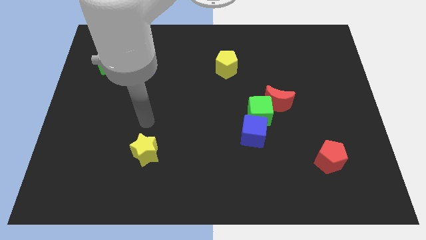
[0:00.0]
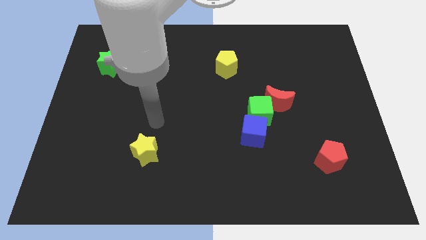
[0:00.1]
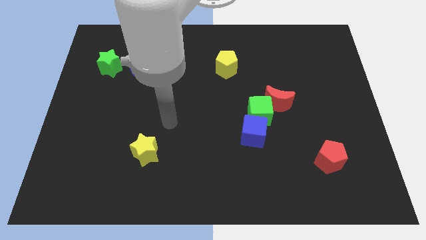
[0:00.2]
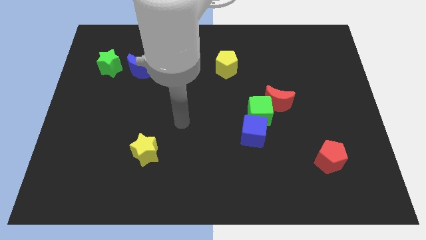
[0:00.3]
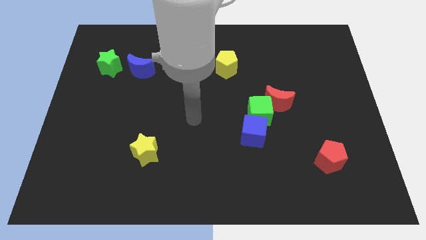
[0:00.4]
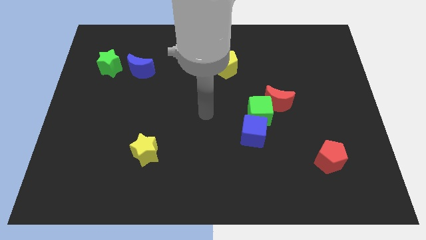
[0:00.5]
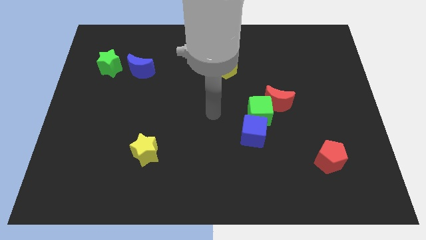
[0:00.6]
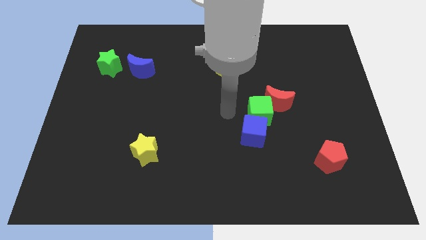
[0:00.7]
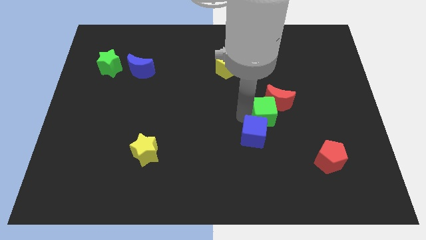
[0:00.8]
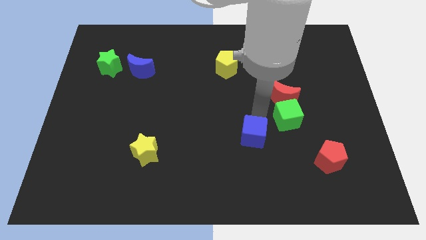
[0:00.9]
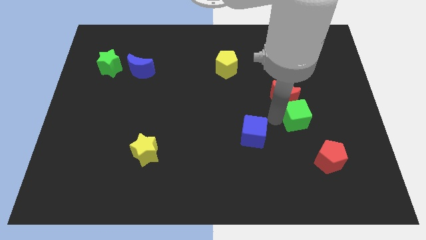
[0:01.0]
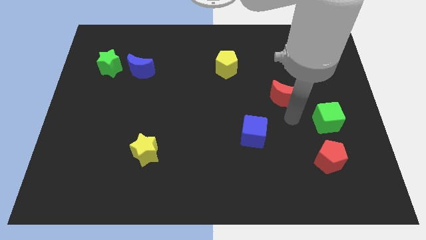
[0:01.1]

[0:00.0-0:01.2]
move the red moon away from the green cube

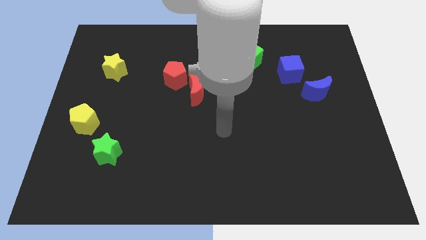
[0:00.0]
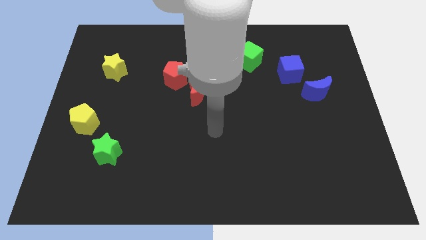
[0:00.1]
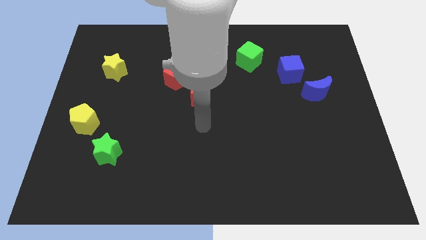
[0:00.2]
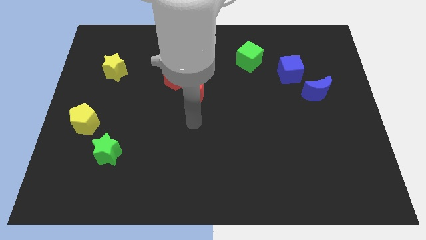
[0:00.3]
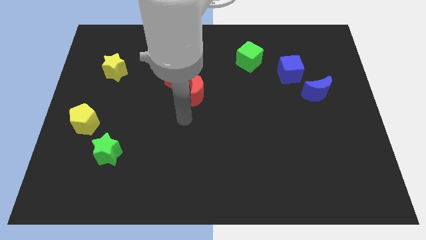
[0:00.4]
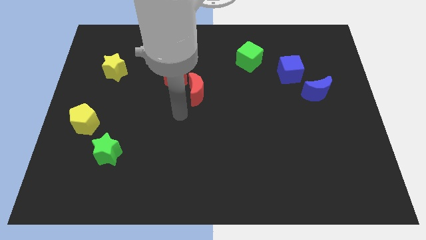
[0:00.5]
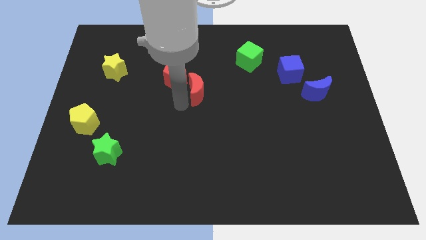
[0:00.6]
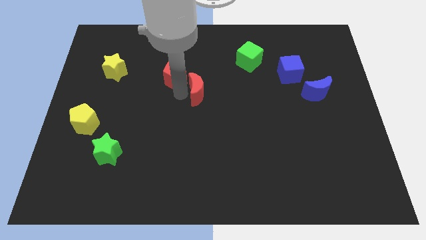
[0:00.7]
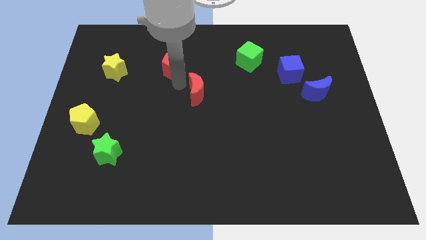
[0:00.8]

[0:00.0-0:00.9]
move the red moon away from the red pentagon

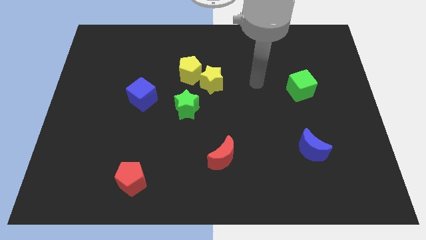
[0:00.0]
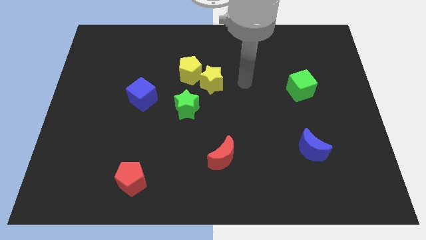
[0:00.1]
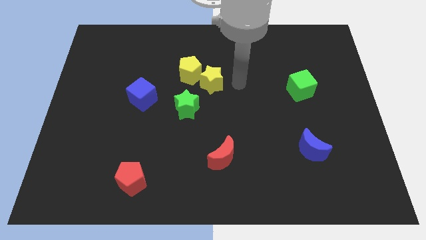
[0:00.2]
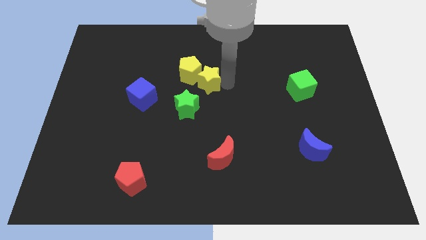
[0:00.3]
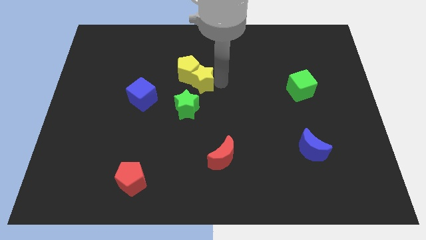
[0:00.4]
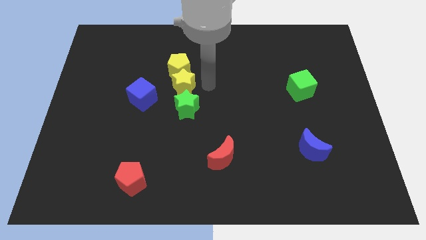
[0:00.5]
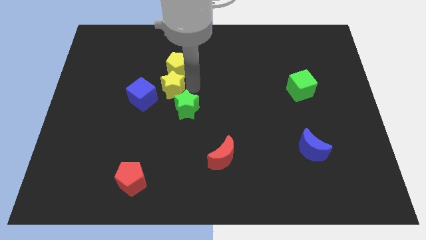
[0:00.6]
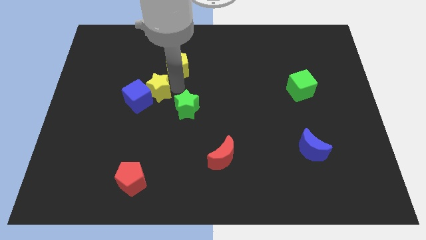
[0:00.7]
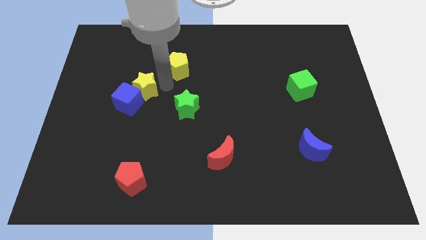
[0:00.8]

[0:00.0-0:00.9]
separate the yellow pentagon from the yellow star

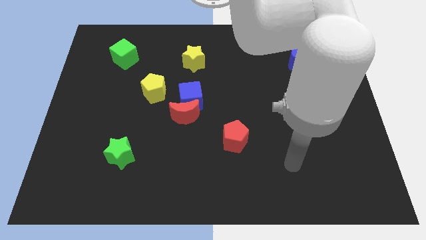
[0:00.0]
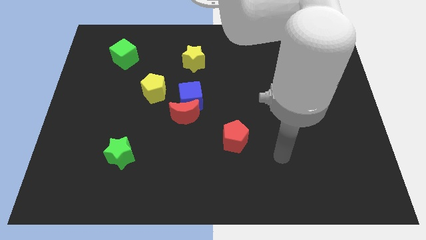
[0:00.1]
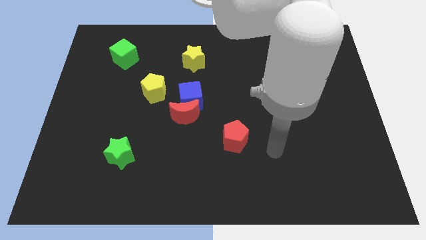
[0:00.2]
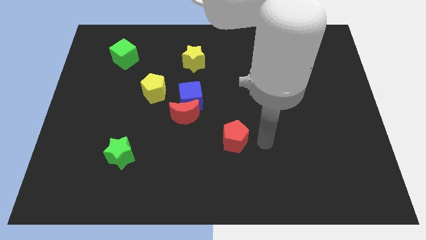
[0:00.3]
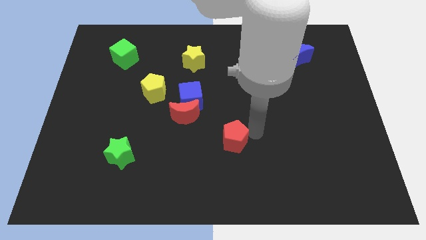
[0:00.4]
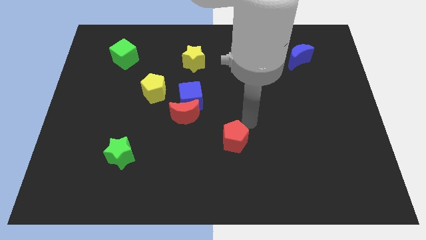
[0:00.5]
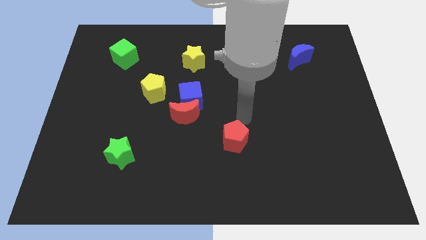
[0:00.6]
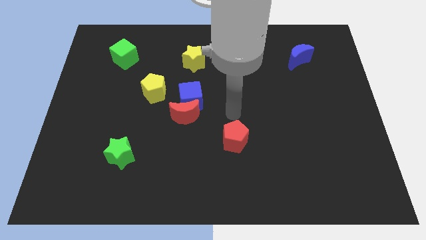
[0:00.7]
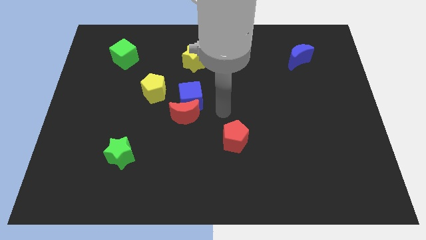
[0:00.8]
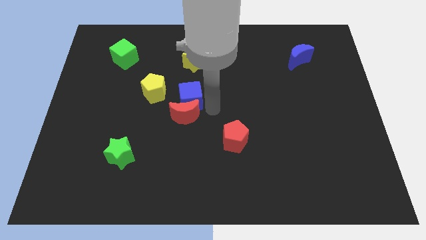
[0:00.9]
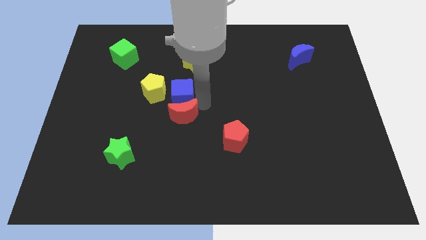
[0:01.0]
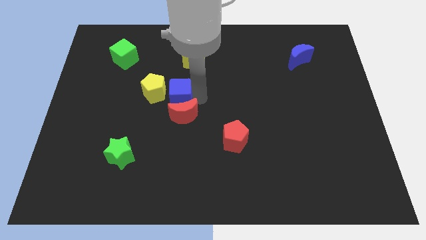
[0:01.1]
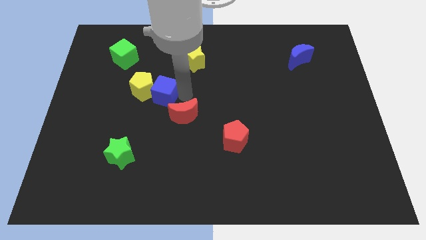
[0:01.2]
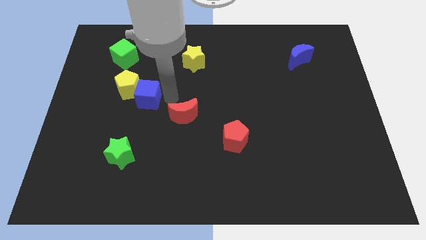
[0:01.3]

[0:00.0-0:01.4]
move the red moon away from the blue cube

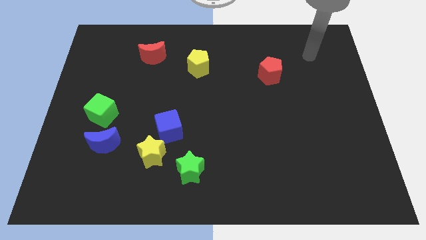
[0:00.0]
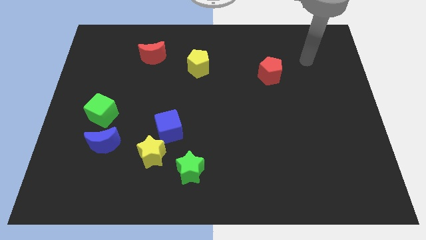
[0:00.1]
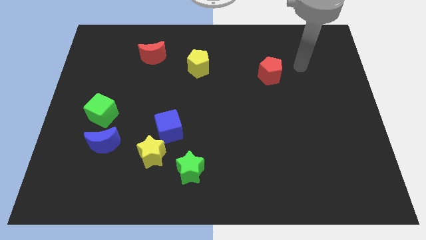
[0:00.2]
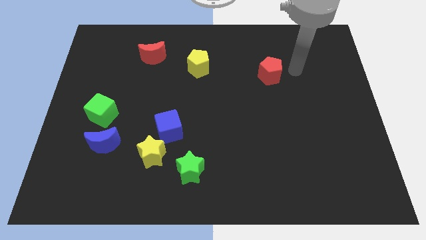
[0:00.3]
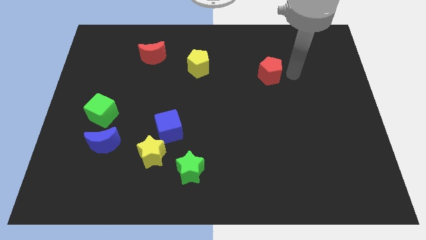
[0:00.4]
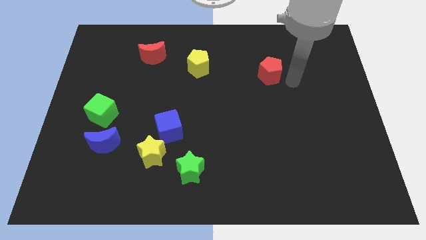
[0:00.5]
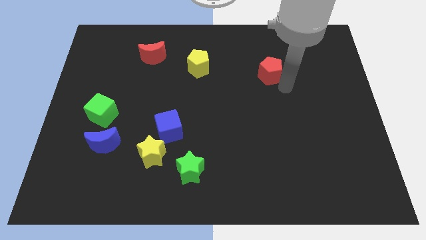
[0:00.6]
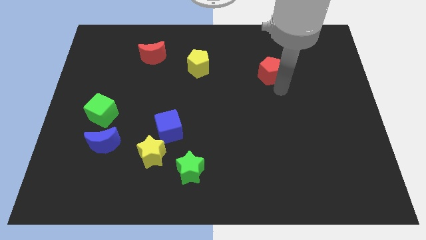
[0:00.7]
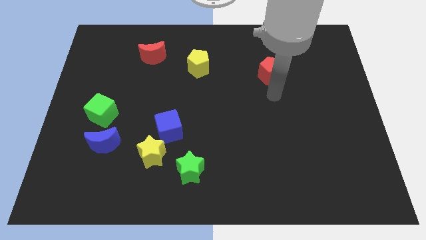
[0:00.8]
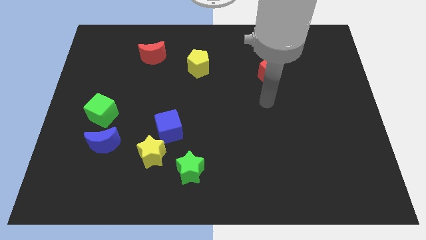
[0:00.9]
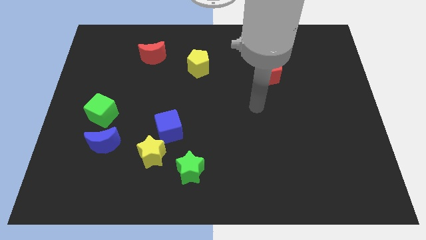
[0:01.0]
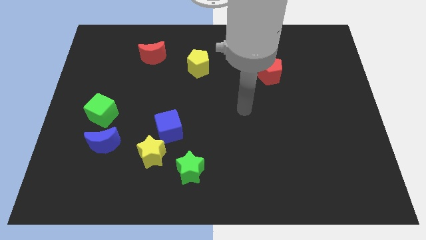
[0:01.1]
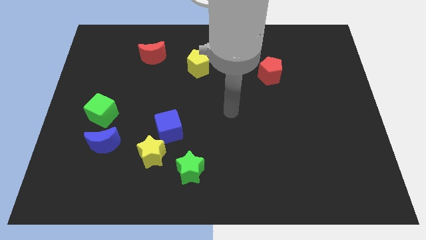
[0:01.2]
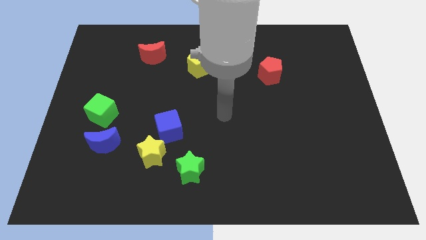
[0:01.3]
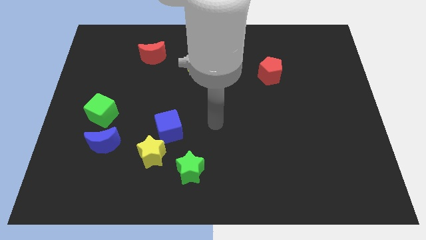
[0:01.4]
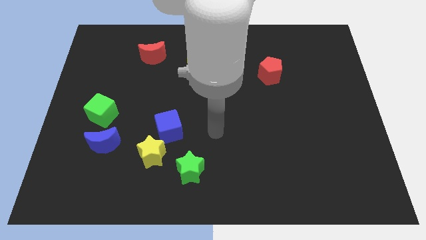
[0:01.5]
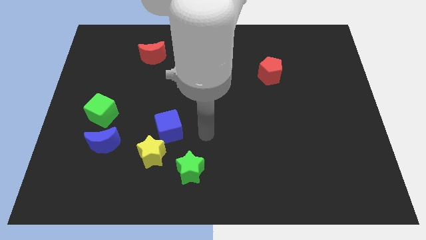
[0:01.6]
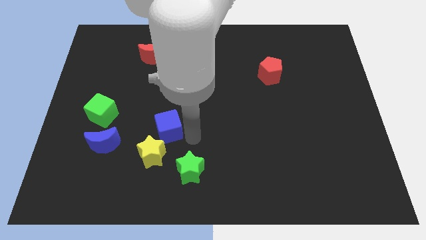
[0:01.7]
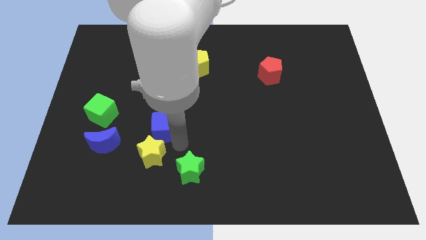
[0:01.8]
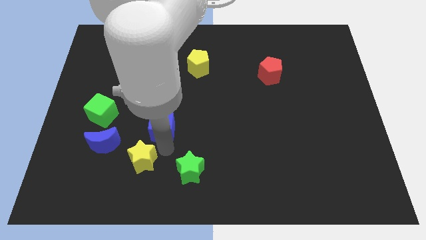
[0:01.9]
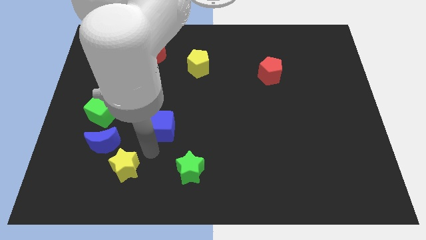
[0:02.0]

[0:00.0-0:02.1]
move the blue cube away from the yellow star

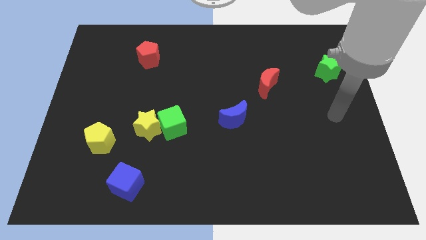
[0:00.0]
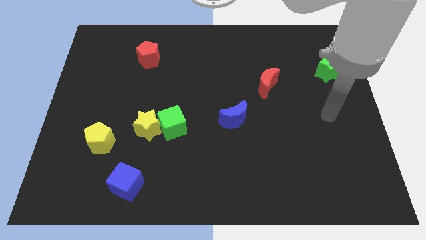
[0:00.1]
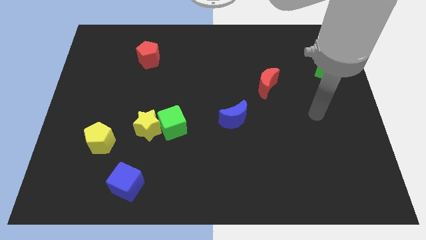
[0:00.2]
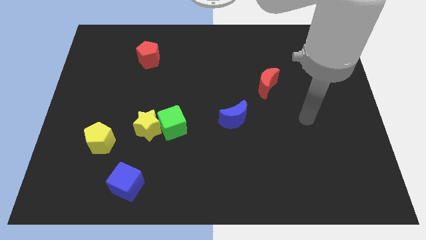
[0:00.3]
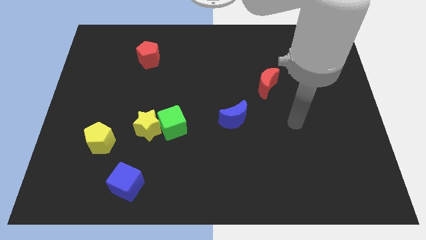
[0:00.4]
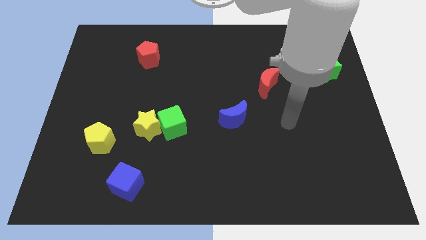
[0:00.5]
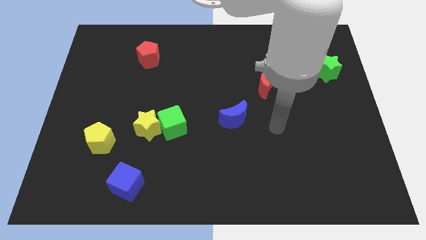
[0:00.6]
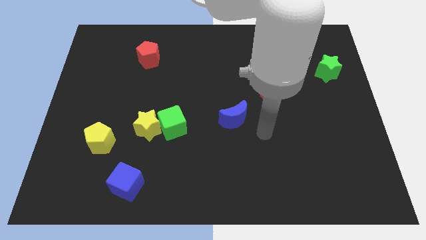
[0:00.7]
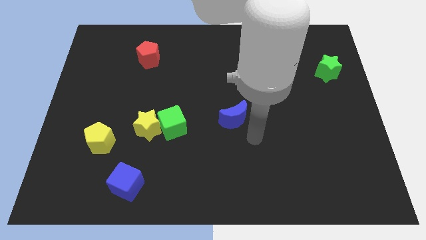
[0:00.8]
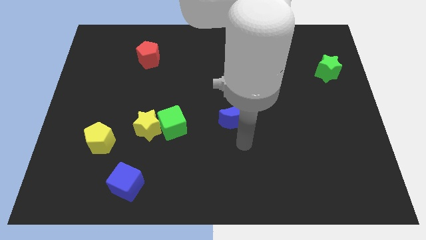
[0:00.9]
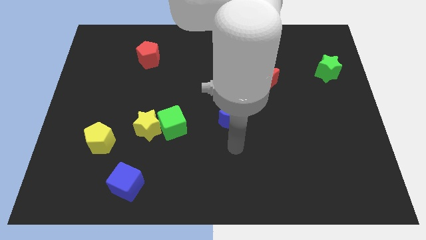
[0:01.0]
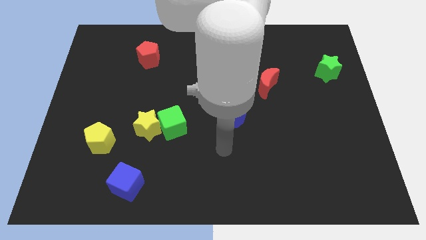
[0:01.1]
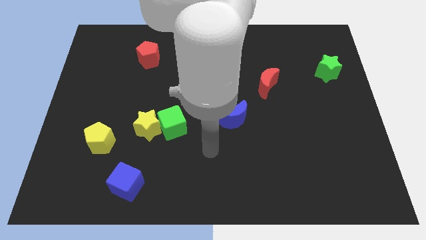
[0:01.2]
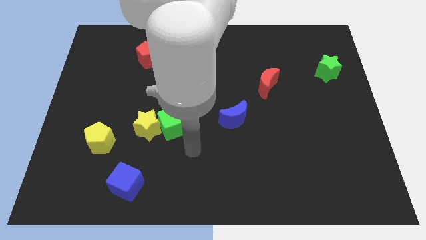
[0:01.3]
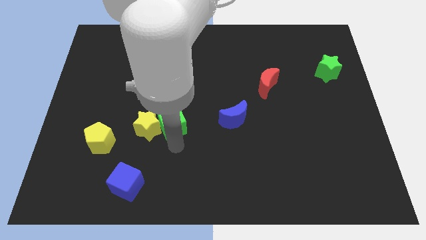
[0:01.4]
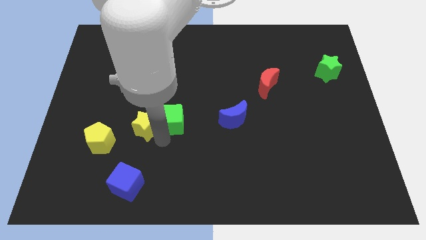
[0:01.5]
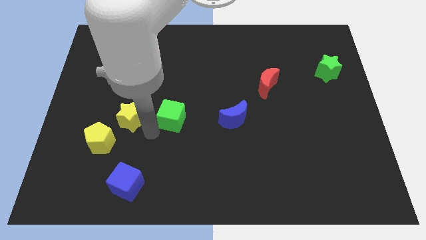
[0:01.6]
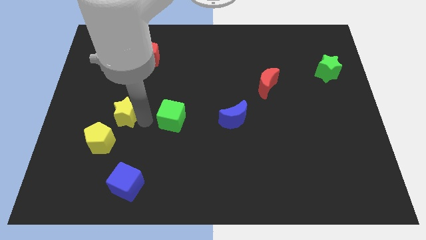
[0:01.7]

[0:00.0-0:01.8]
pull the green cube apart from the yellow star

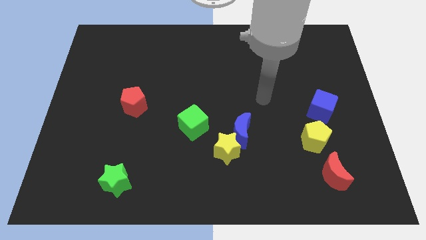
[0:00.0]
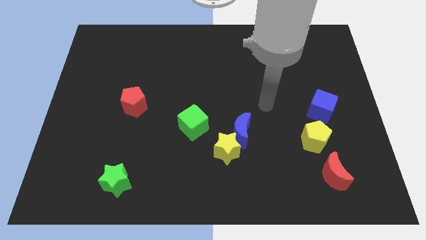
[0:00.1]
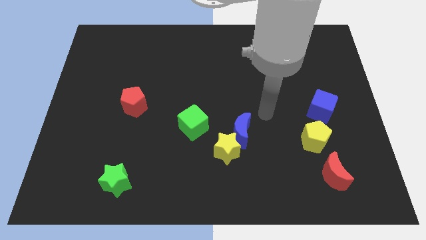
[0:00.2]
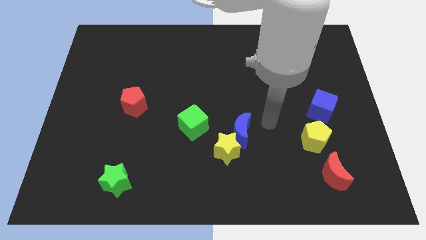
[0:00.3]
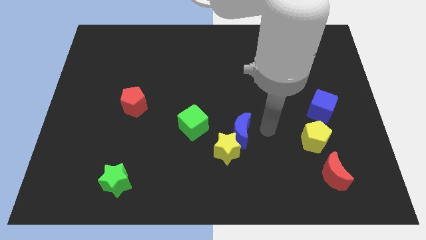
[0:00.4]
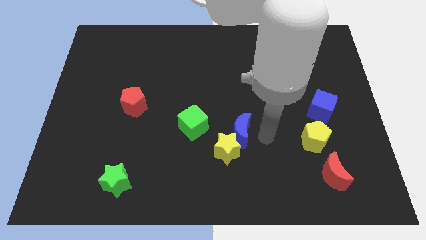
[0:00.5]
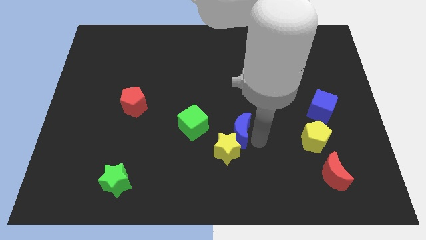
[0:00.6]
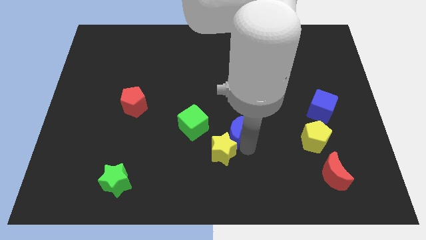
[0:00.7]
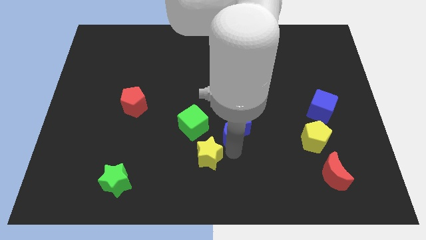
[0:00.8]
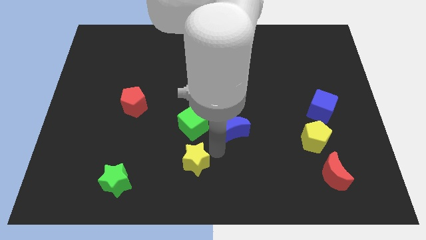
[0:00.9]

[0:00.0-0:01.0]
separate the blue moon from the yellow star
